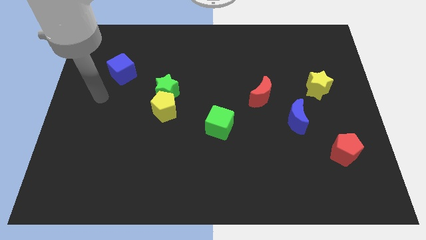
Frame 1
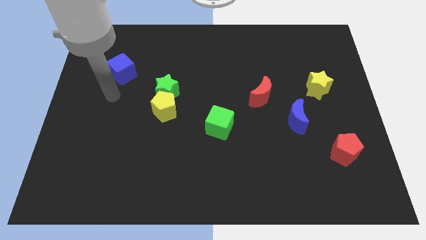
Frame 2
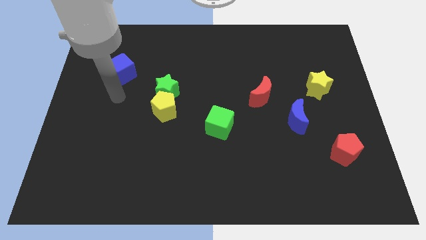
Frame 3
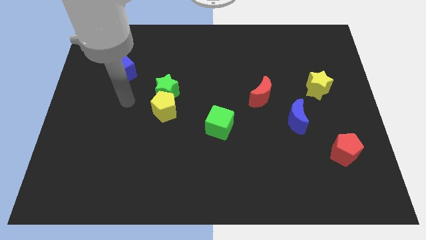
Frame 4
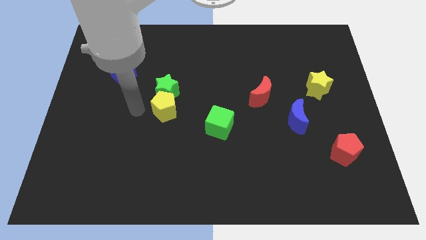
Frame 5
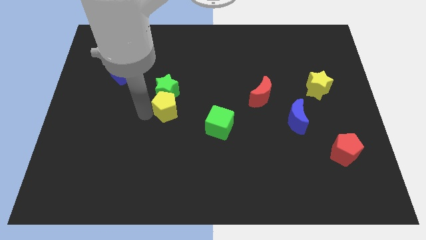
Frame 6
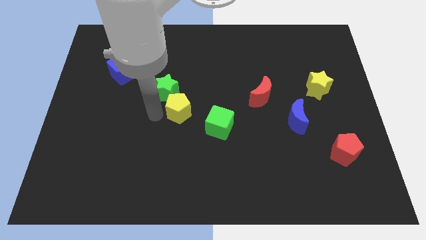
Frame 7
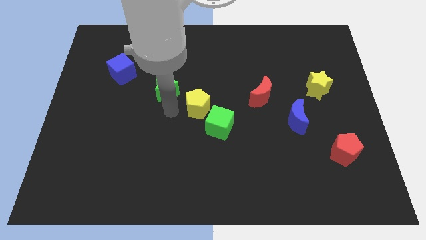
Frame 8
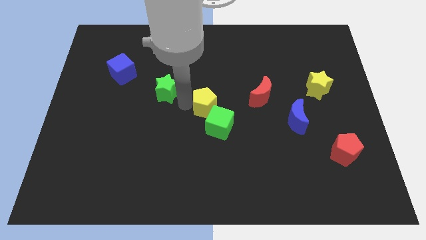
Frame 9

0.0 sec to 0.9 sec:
pull the green star apart from the yellow pentagon

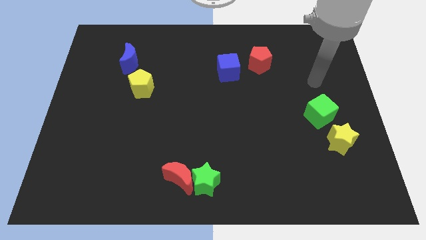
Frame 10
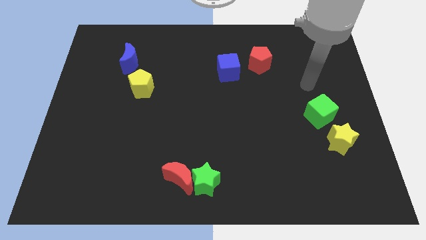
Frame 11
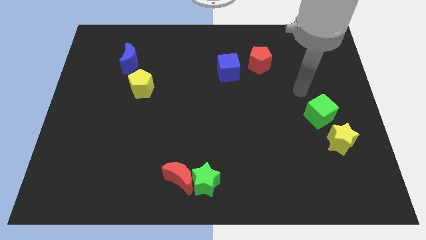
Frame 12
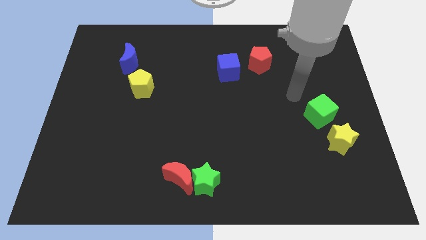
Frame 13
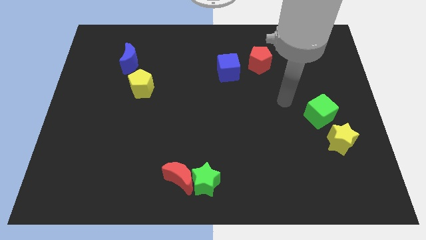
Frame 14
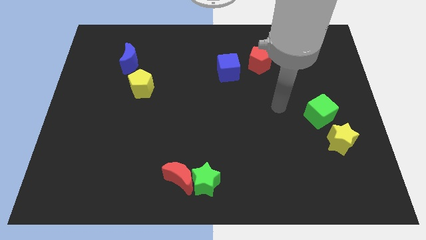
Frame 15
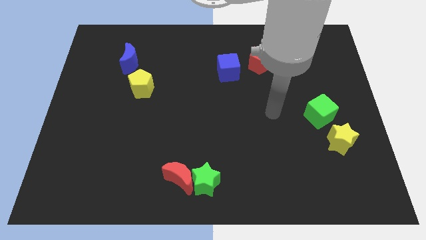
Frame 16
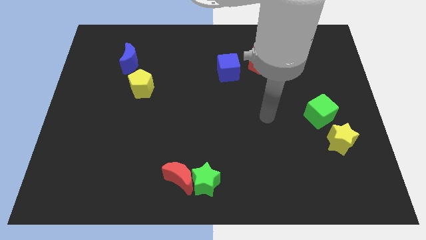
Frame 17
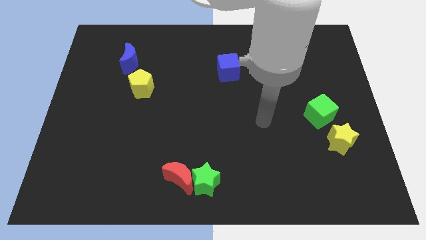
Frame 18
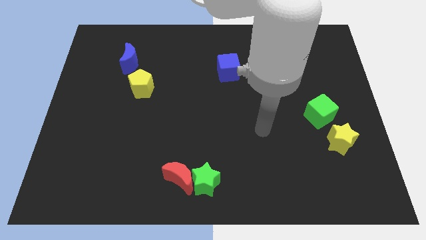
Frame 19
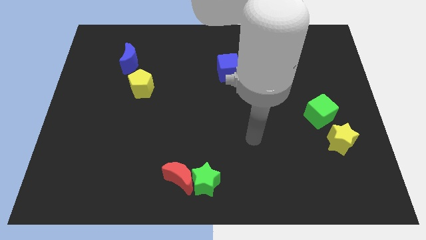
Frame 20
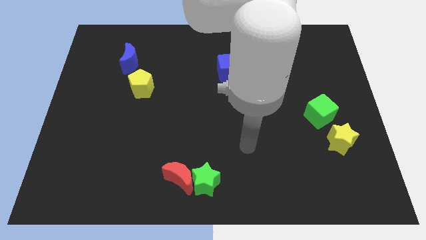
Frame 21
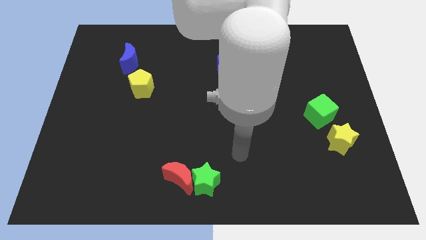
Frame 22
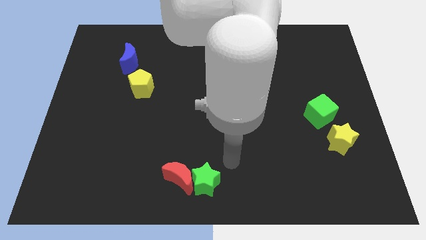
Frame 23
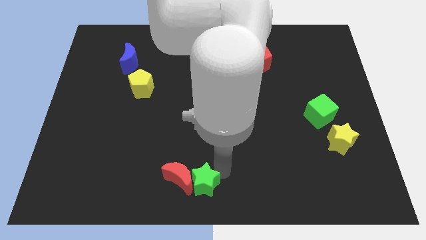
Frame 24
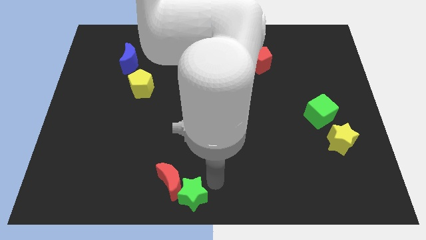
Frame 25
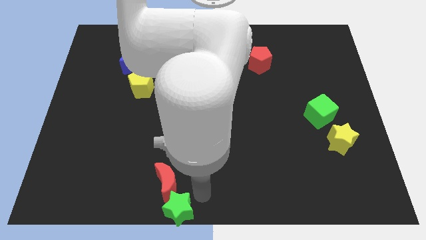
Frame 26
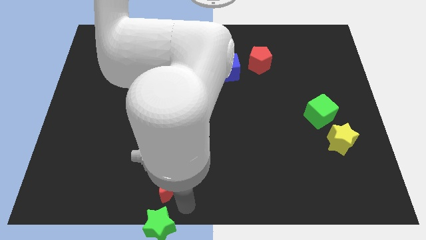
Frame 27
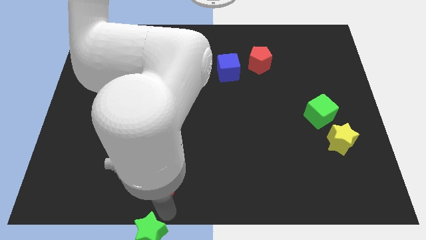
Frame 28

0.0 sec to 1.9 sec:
move the red moon away from the green star

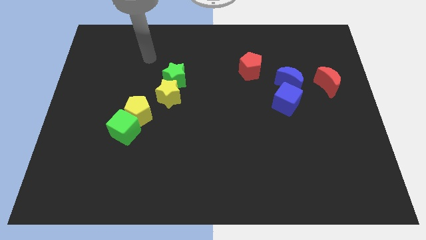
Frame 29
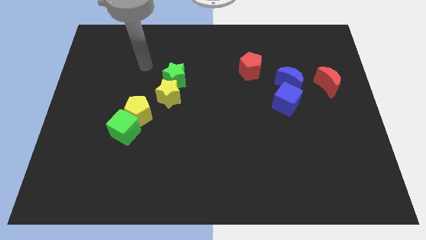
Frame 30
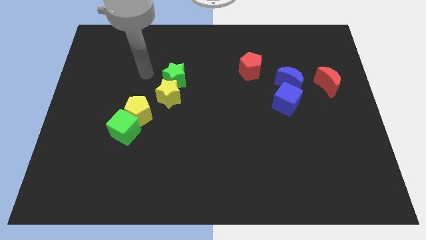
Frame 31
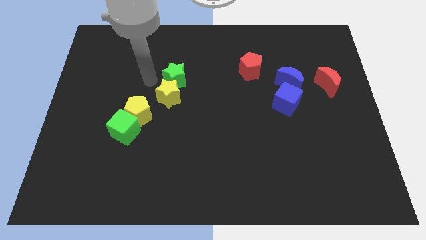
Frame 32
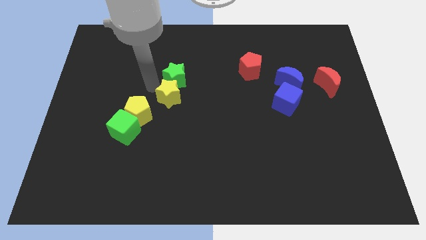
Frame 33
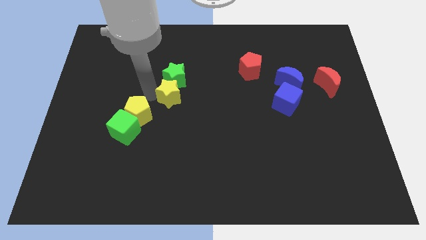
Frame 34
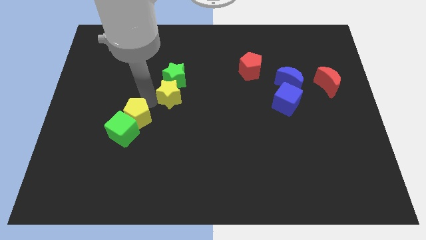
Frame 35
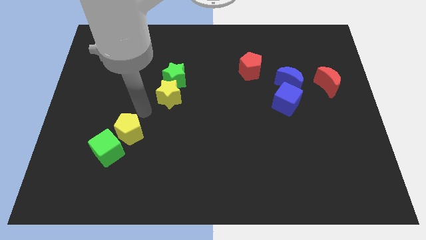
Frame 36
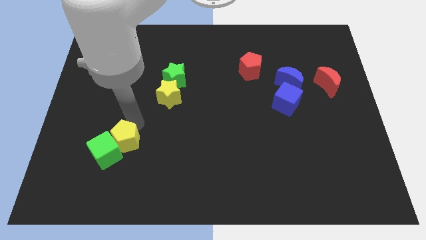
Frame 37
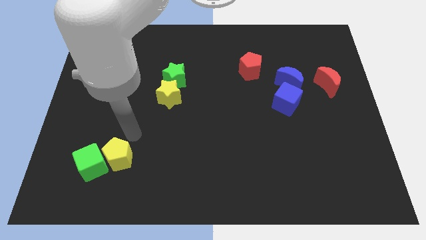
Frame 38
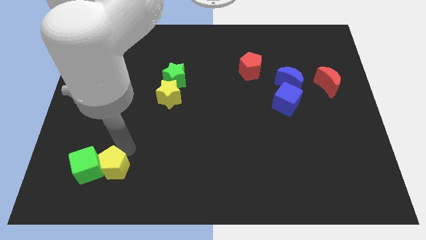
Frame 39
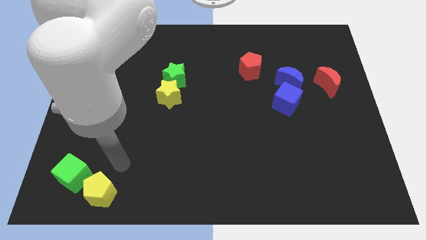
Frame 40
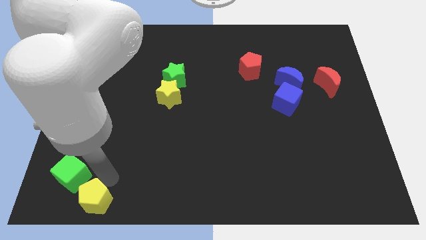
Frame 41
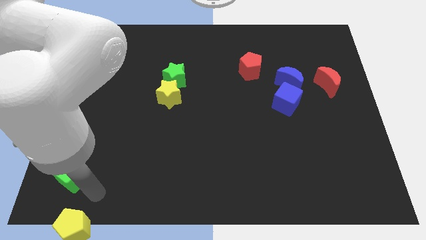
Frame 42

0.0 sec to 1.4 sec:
pull the green cube apart from the yellow pentagon

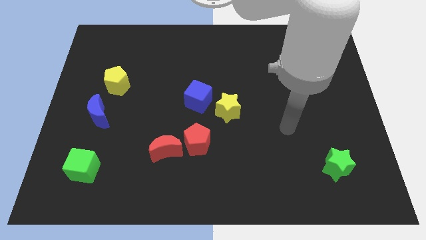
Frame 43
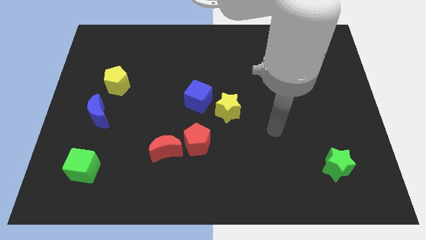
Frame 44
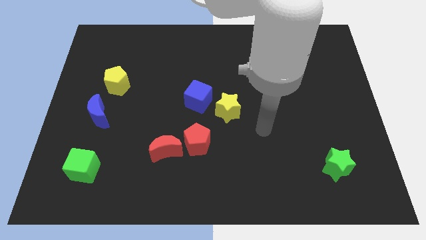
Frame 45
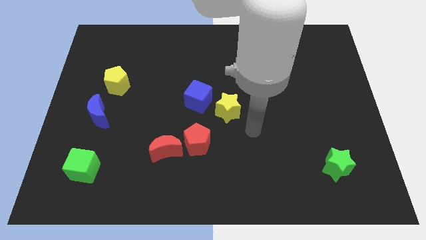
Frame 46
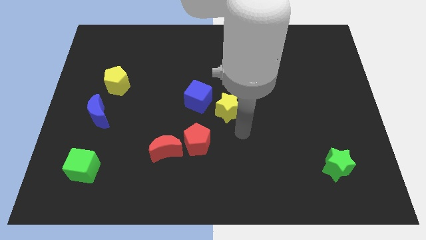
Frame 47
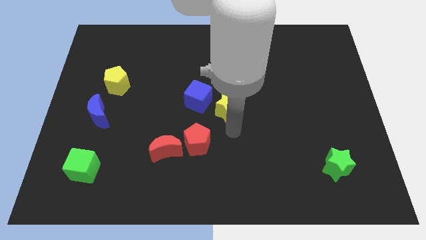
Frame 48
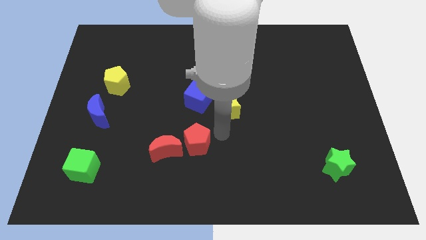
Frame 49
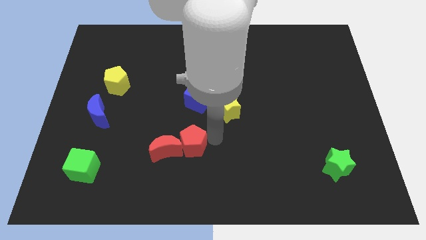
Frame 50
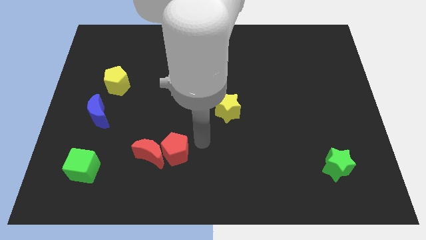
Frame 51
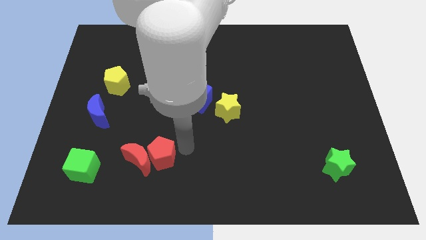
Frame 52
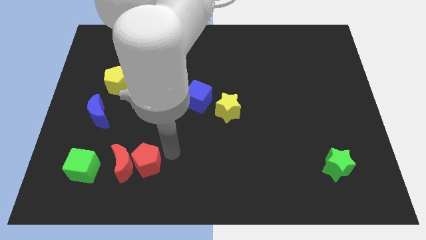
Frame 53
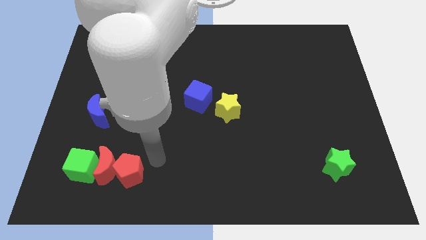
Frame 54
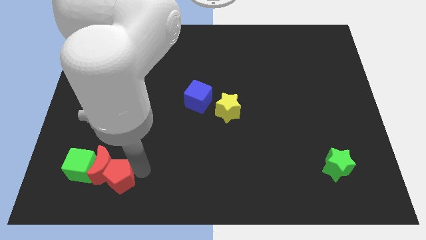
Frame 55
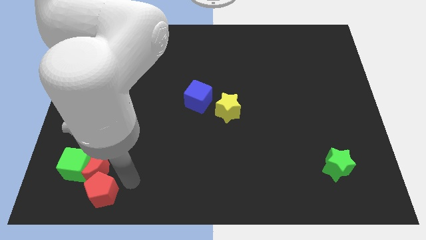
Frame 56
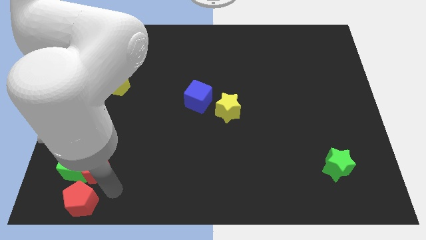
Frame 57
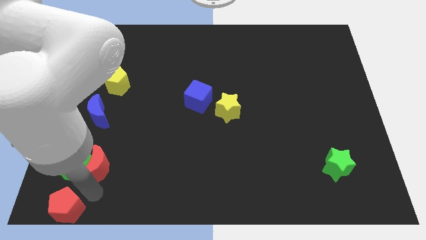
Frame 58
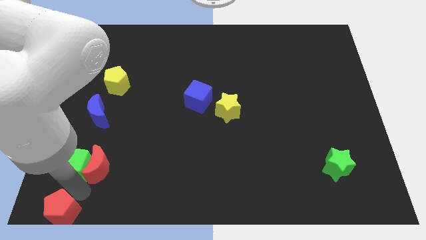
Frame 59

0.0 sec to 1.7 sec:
pull the red moon apart from the red pentagon

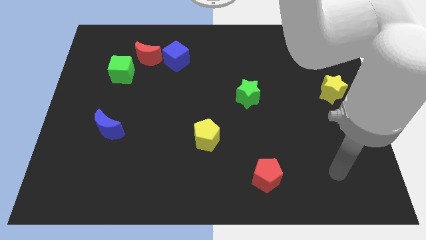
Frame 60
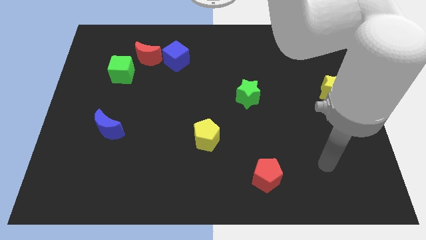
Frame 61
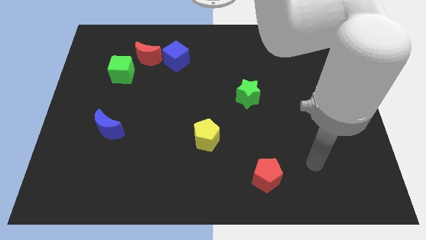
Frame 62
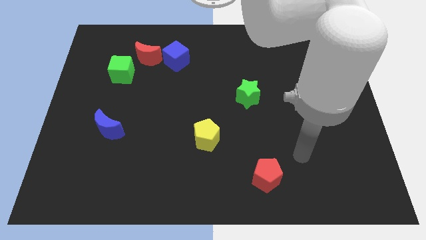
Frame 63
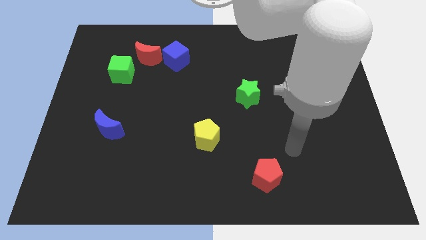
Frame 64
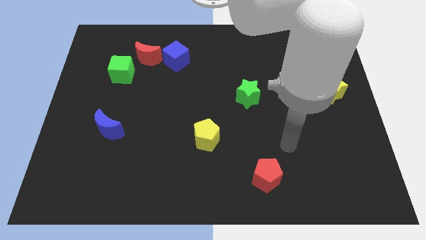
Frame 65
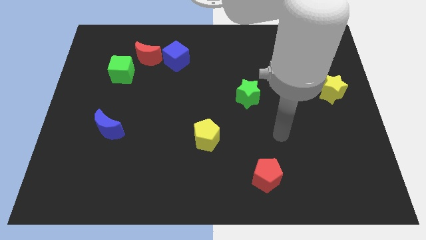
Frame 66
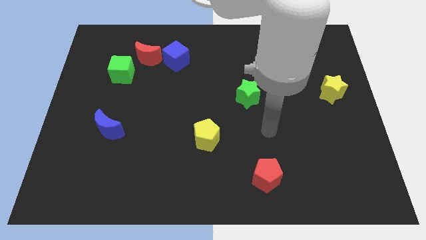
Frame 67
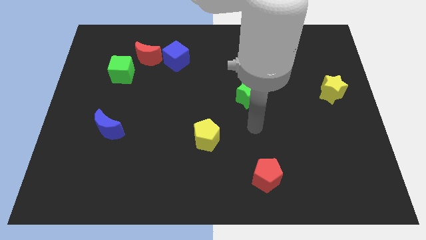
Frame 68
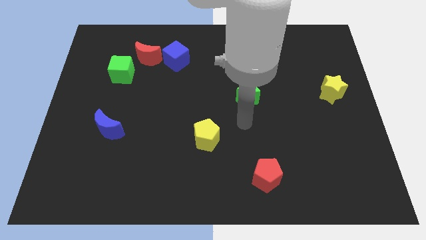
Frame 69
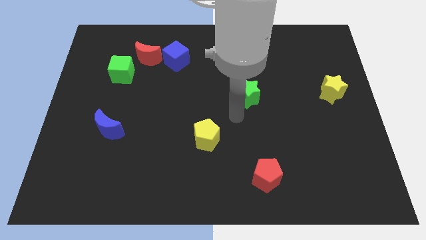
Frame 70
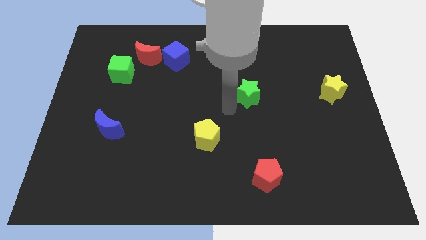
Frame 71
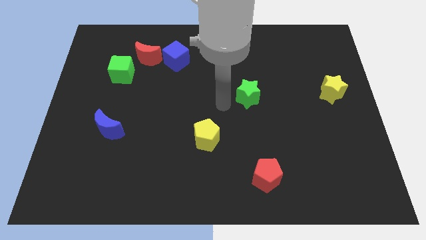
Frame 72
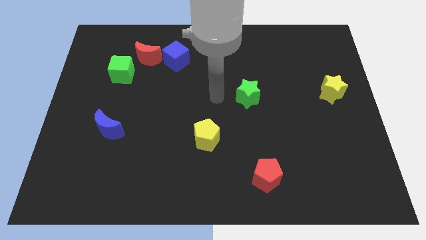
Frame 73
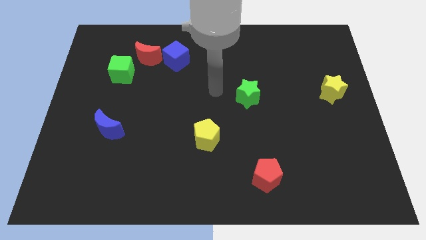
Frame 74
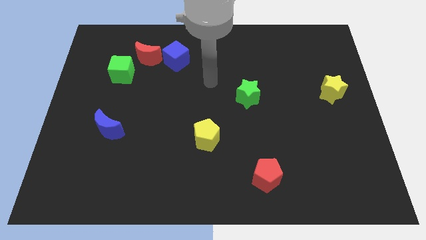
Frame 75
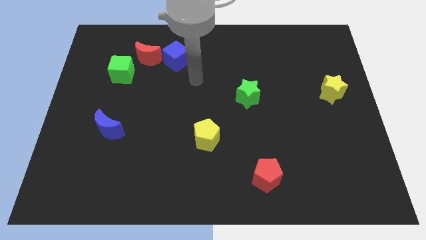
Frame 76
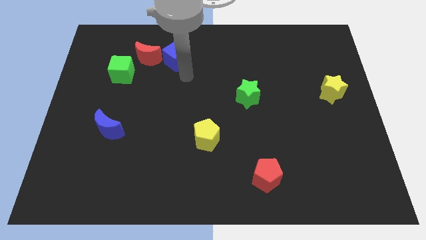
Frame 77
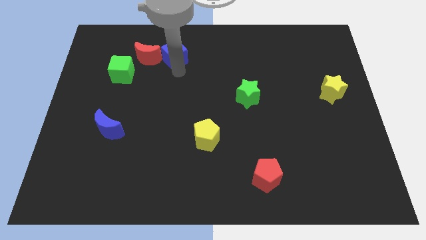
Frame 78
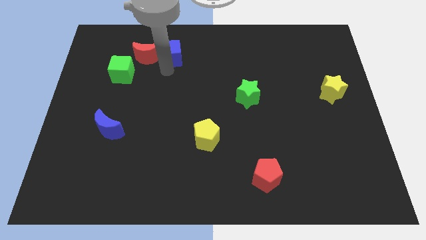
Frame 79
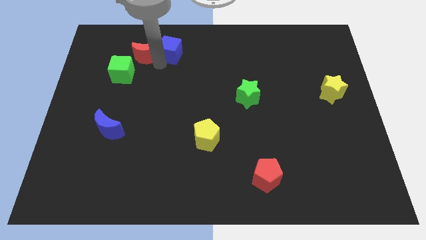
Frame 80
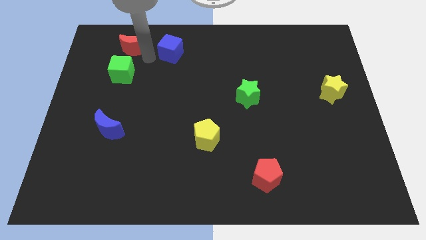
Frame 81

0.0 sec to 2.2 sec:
separate the blue cube from the red moon

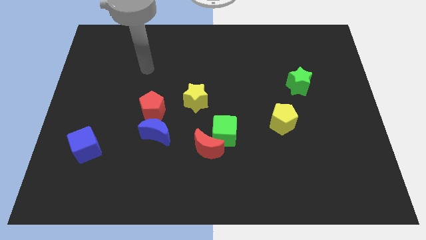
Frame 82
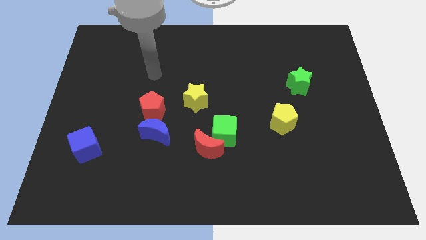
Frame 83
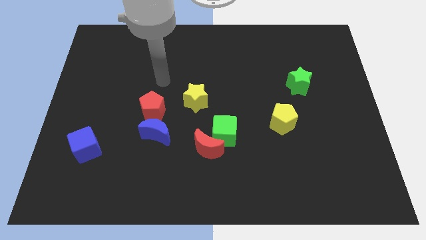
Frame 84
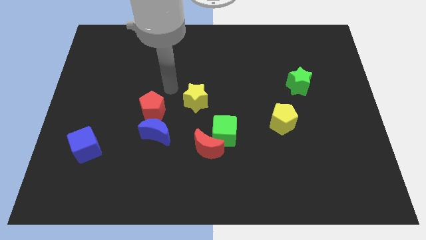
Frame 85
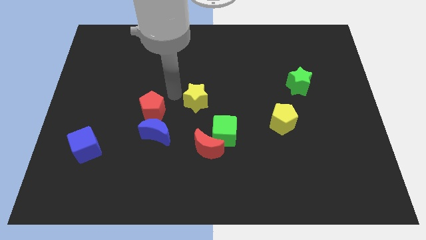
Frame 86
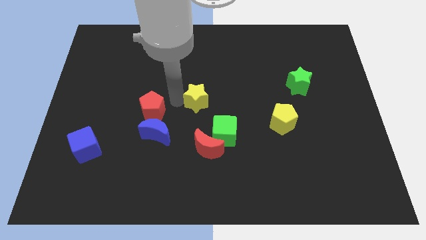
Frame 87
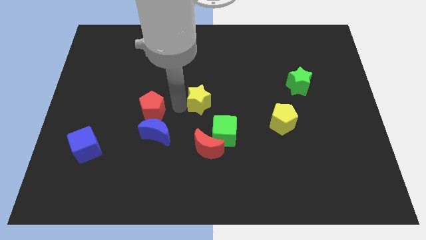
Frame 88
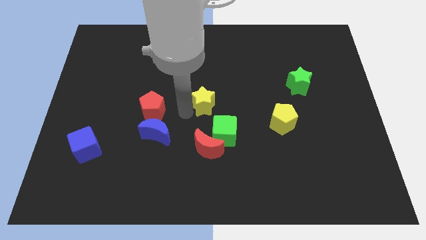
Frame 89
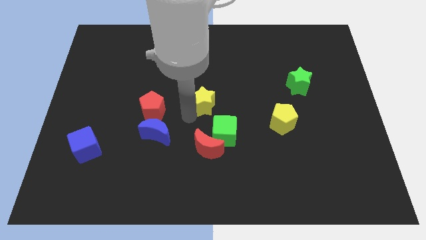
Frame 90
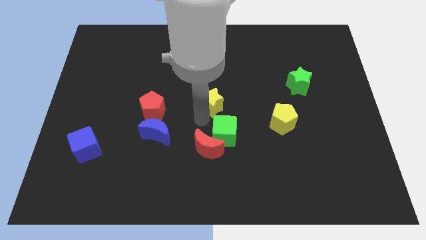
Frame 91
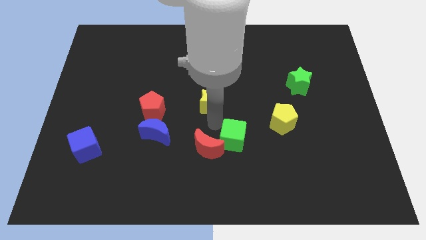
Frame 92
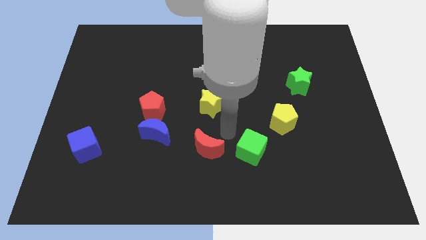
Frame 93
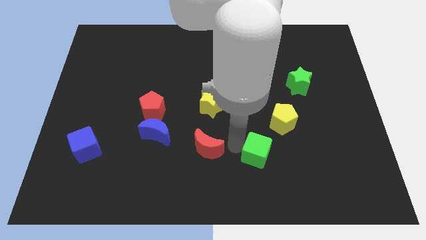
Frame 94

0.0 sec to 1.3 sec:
move the red moon away from the green cube
